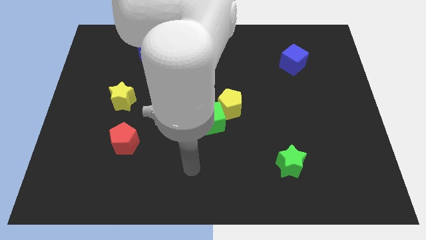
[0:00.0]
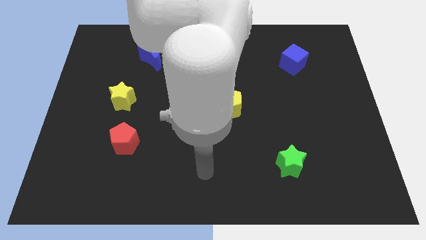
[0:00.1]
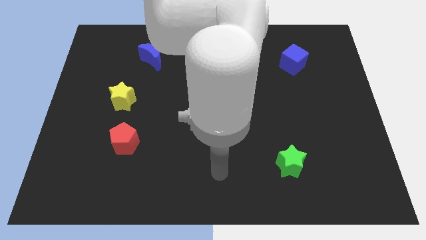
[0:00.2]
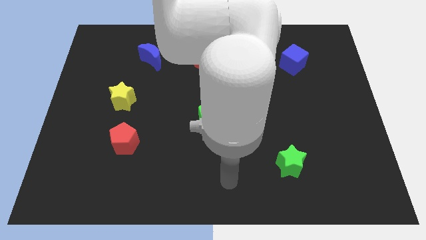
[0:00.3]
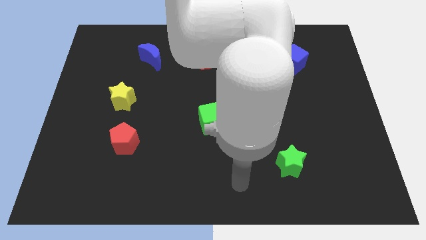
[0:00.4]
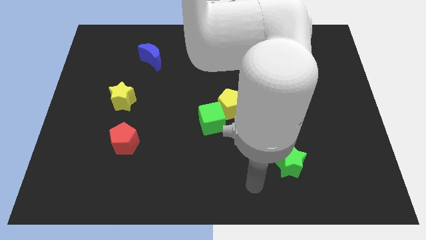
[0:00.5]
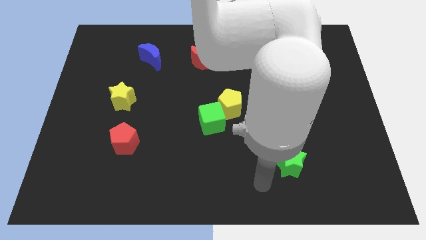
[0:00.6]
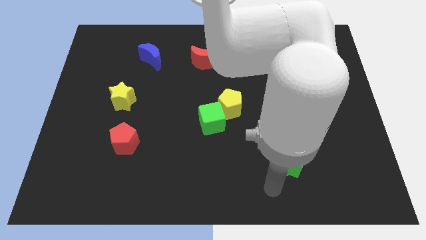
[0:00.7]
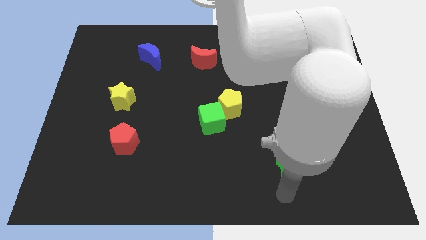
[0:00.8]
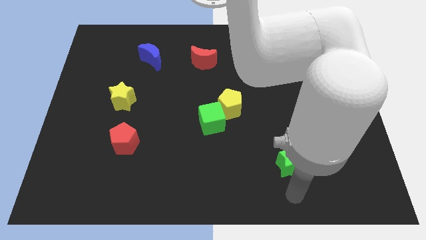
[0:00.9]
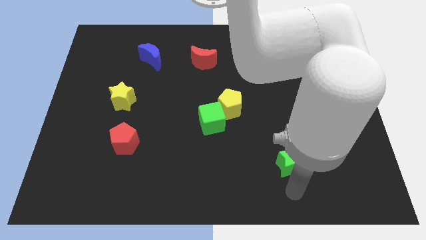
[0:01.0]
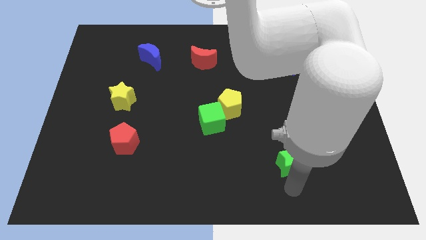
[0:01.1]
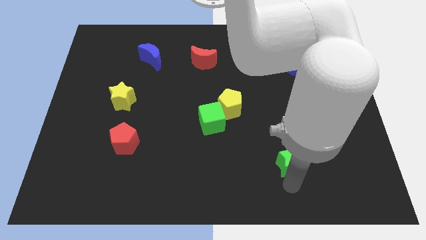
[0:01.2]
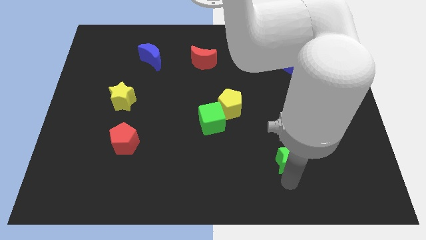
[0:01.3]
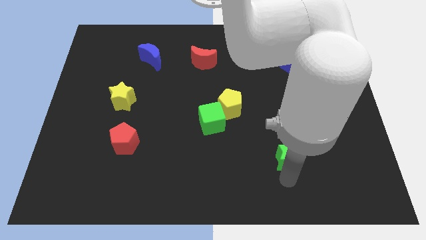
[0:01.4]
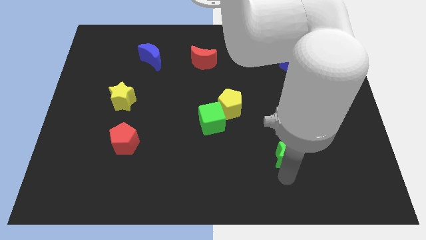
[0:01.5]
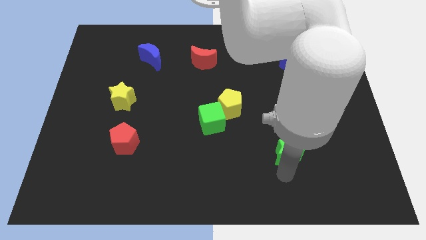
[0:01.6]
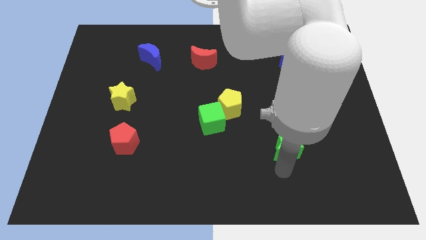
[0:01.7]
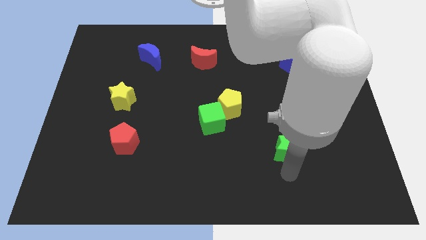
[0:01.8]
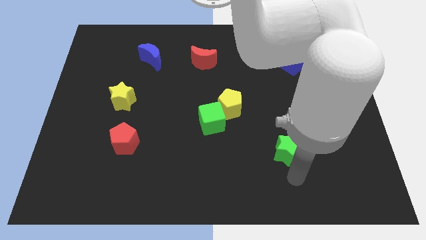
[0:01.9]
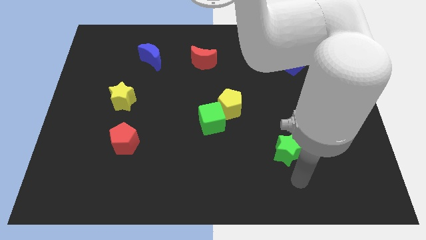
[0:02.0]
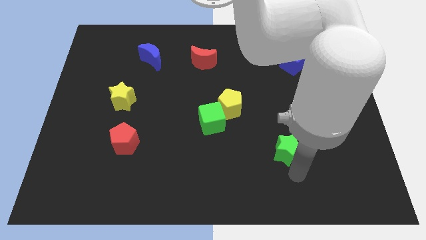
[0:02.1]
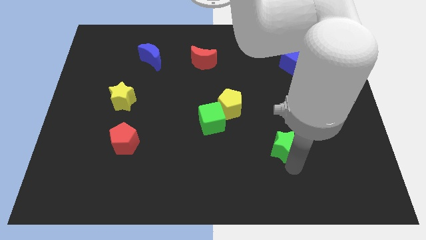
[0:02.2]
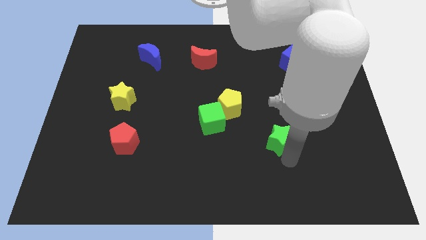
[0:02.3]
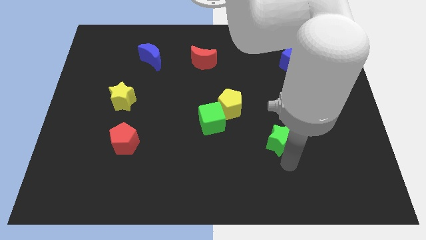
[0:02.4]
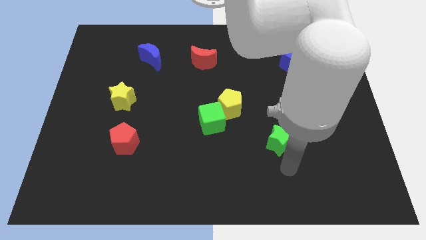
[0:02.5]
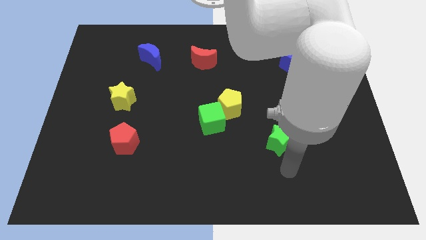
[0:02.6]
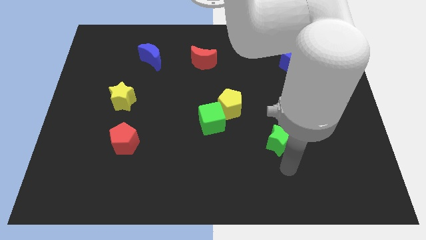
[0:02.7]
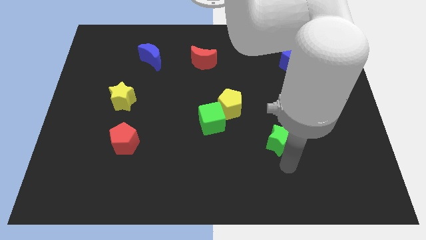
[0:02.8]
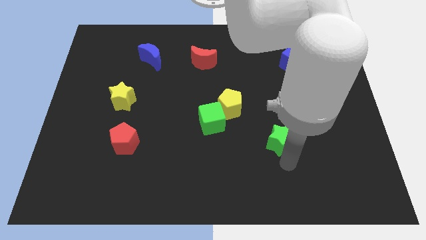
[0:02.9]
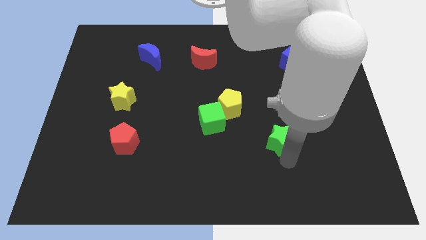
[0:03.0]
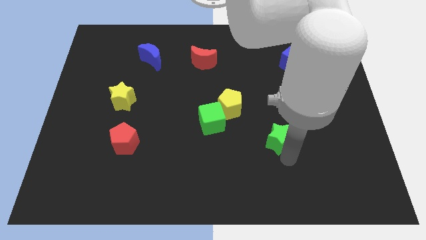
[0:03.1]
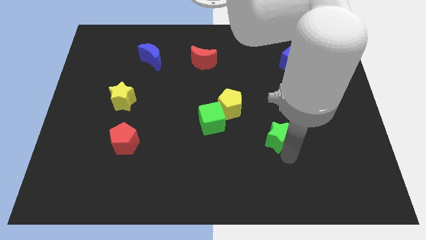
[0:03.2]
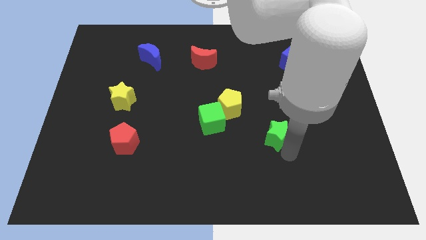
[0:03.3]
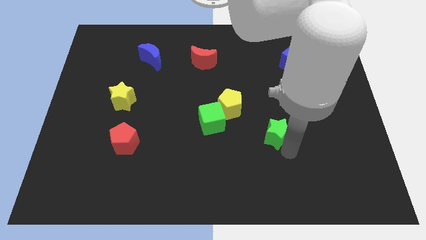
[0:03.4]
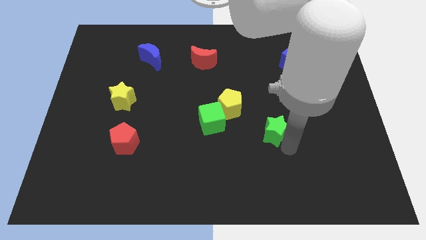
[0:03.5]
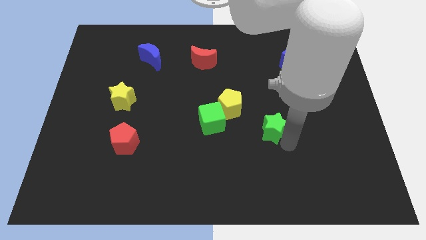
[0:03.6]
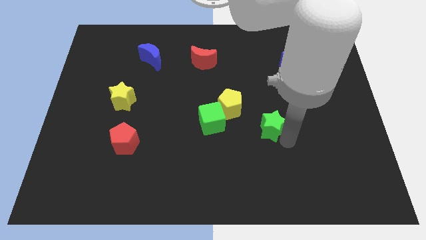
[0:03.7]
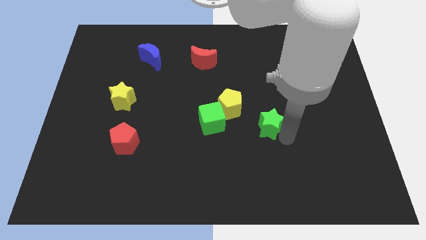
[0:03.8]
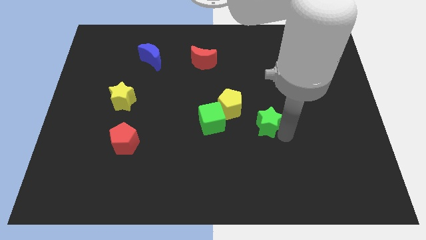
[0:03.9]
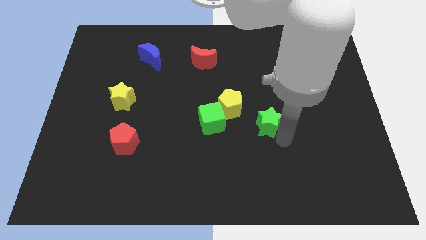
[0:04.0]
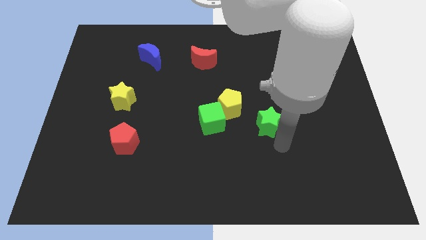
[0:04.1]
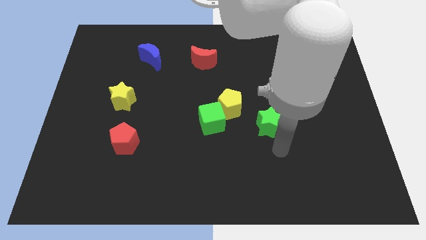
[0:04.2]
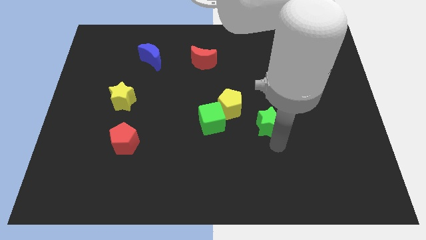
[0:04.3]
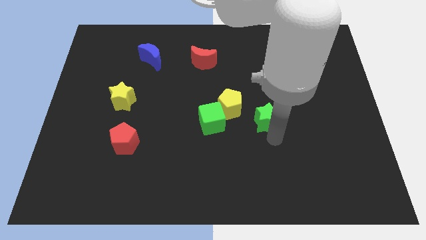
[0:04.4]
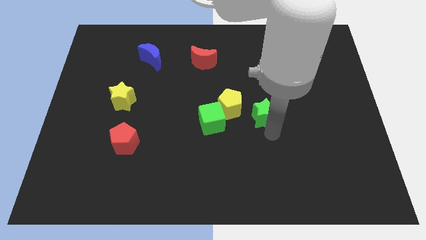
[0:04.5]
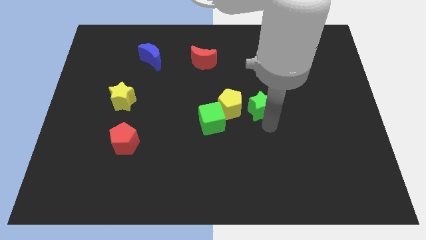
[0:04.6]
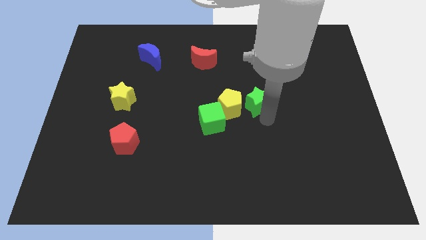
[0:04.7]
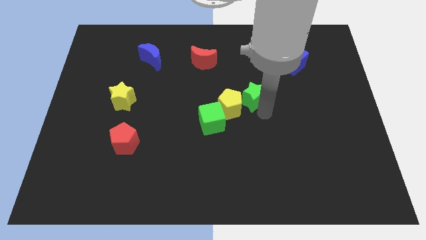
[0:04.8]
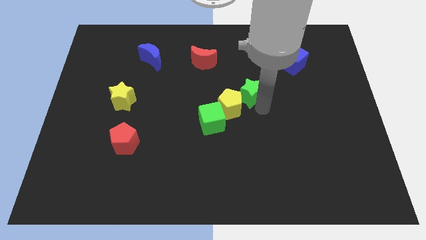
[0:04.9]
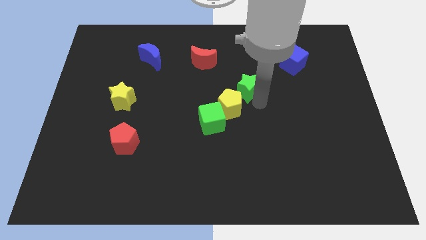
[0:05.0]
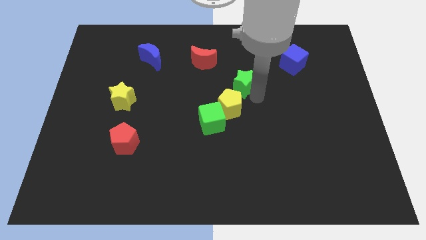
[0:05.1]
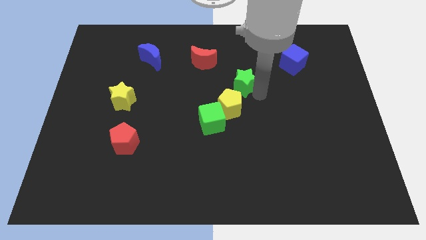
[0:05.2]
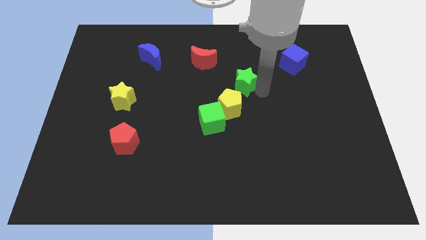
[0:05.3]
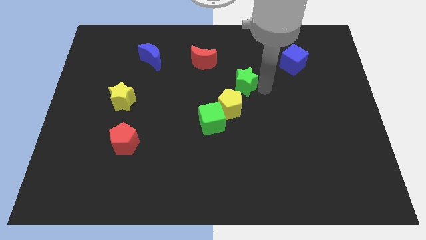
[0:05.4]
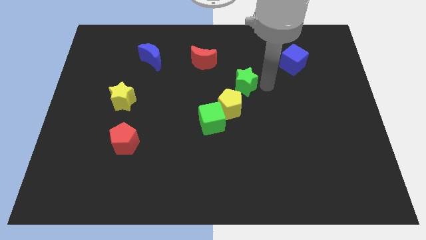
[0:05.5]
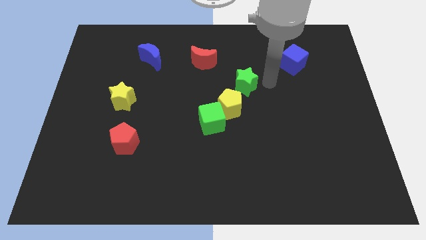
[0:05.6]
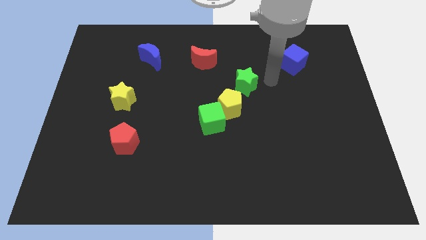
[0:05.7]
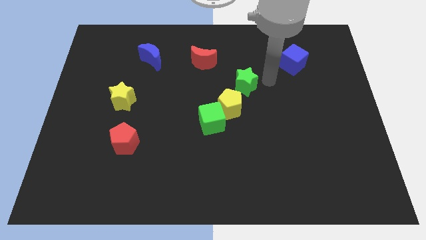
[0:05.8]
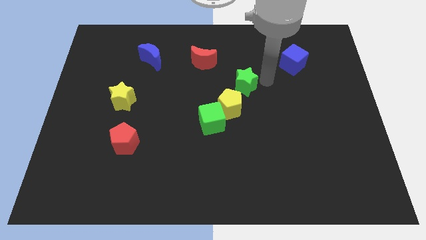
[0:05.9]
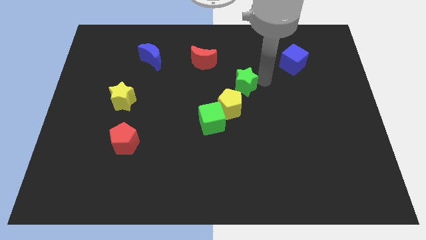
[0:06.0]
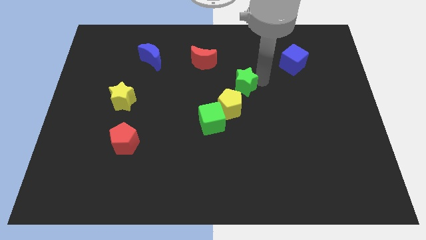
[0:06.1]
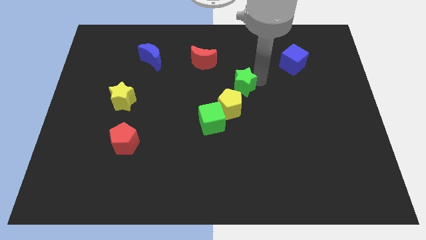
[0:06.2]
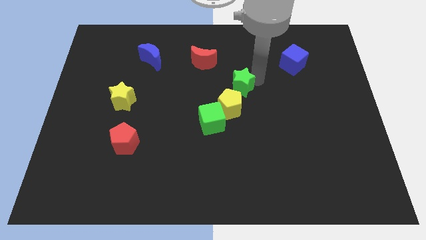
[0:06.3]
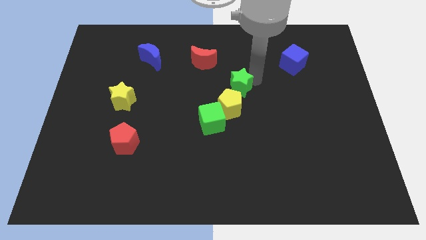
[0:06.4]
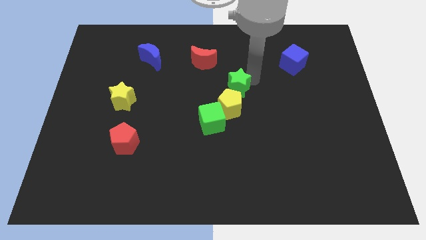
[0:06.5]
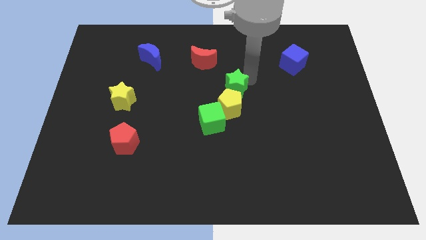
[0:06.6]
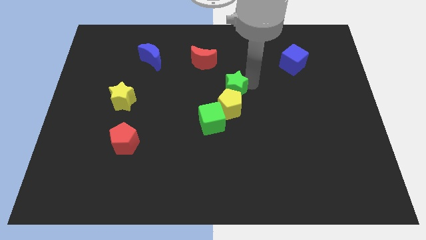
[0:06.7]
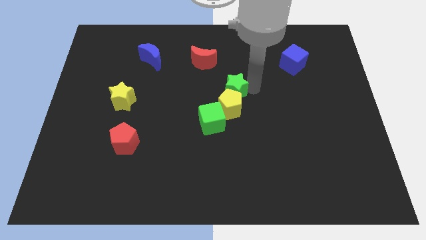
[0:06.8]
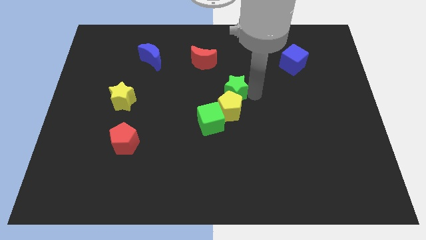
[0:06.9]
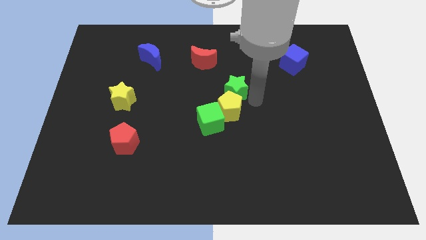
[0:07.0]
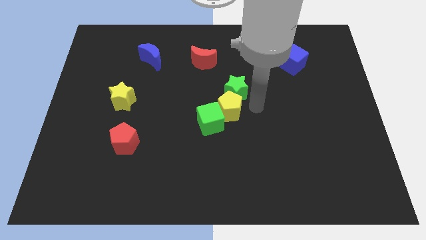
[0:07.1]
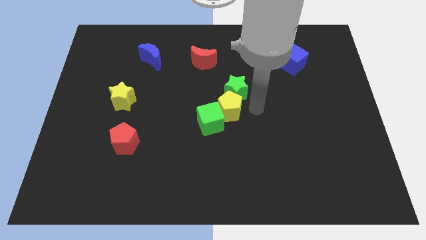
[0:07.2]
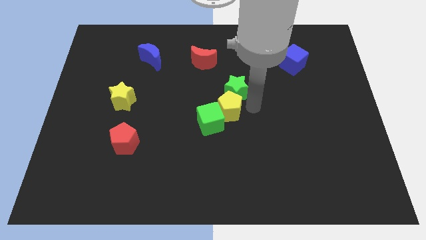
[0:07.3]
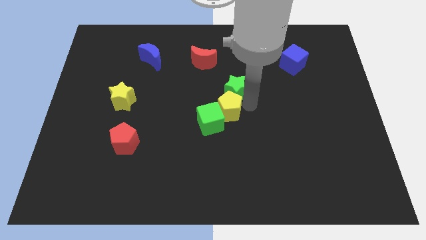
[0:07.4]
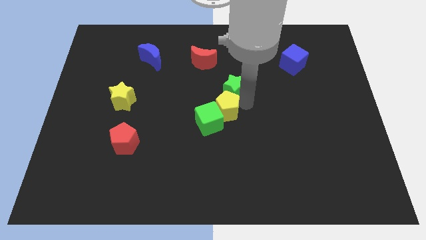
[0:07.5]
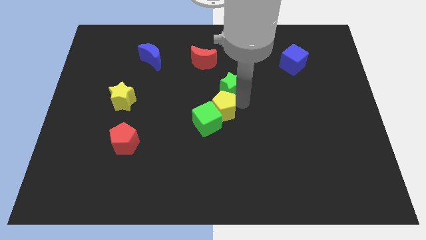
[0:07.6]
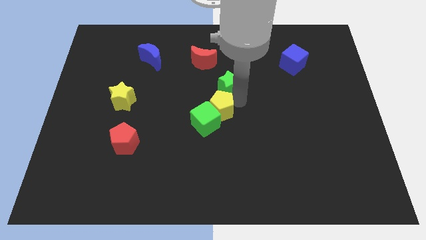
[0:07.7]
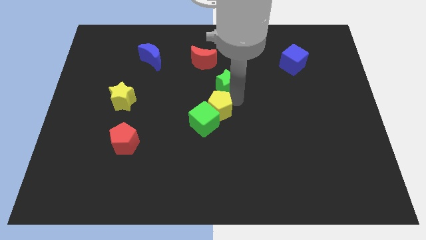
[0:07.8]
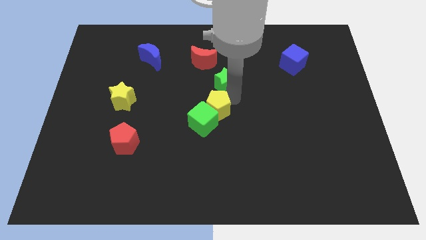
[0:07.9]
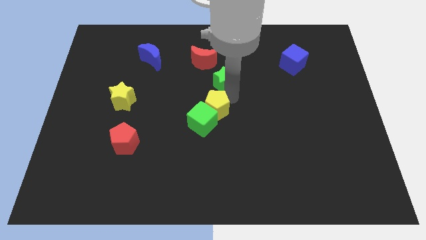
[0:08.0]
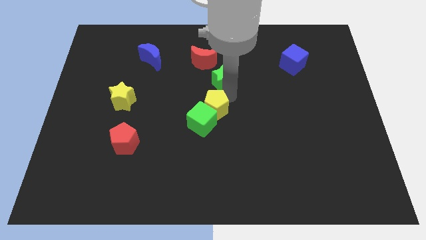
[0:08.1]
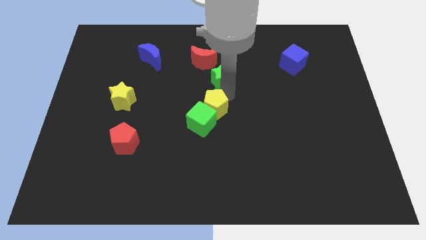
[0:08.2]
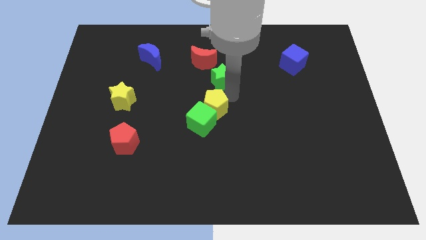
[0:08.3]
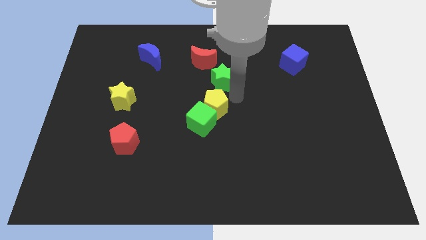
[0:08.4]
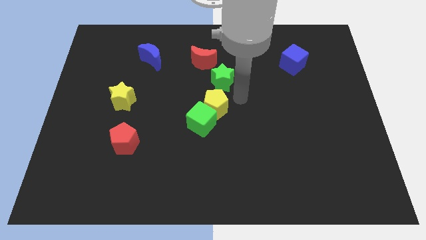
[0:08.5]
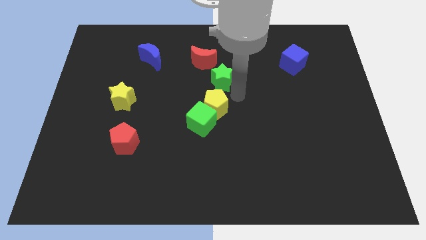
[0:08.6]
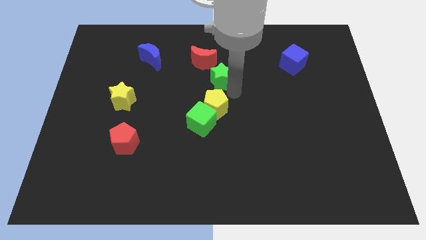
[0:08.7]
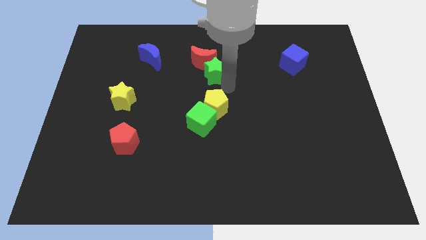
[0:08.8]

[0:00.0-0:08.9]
put the green star close to the red moon
